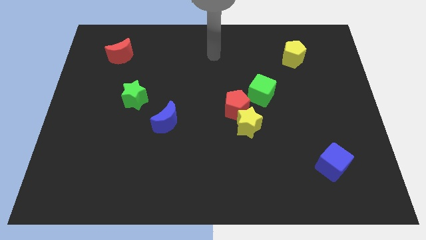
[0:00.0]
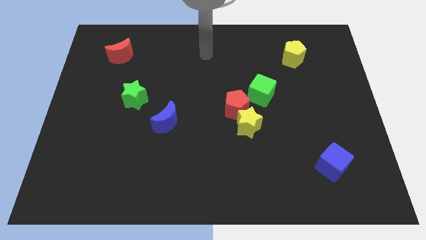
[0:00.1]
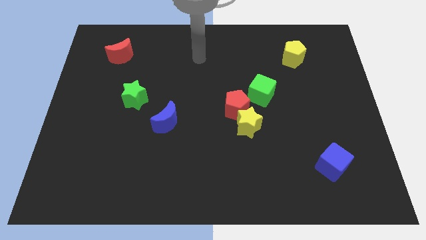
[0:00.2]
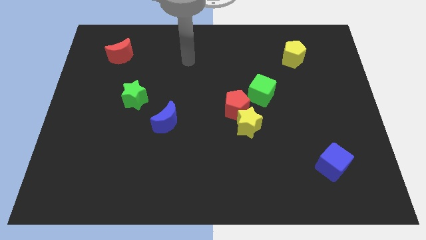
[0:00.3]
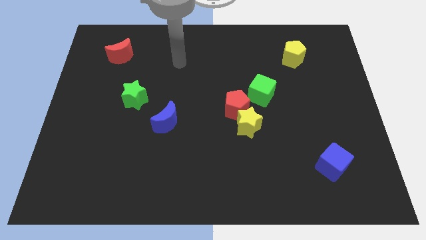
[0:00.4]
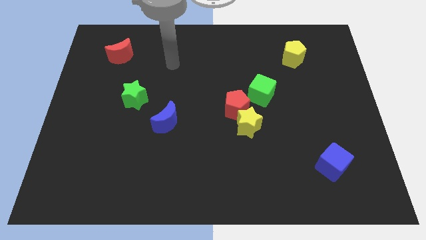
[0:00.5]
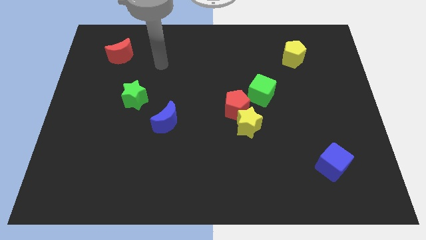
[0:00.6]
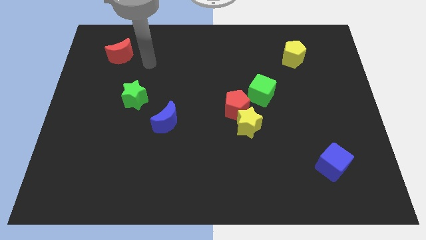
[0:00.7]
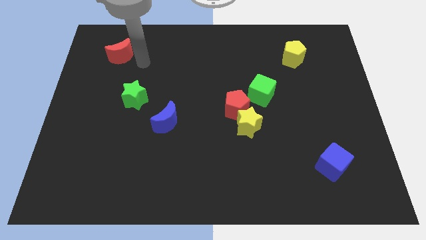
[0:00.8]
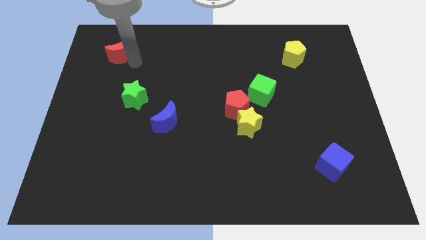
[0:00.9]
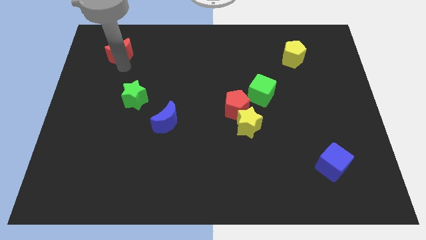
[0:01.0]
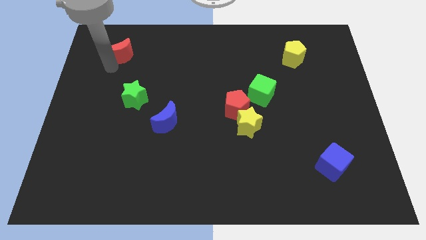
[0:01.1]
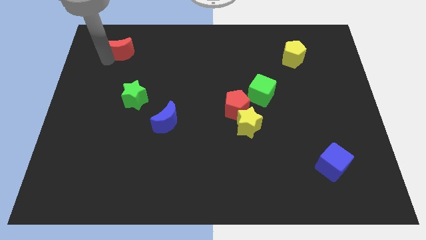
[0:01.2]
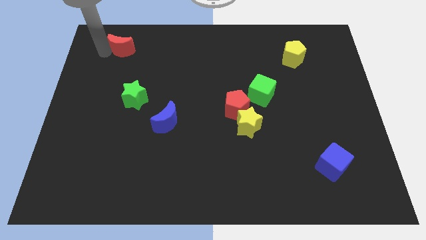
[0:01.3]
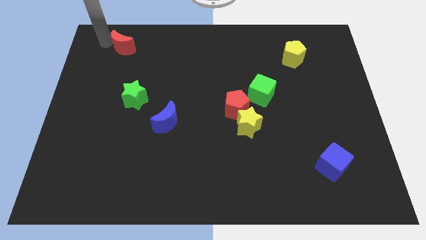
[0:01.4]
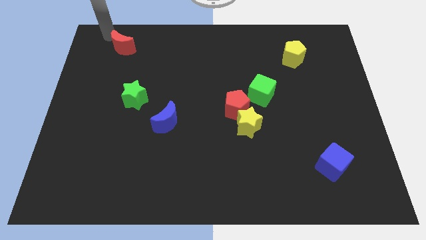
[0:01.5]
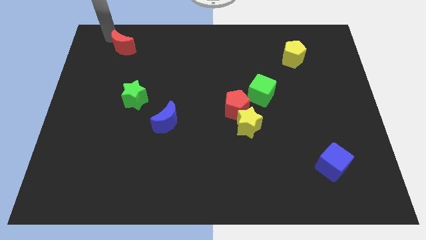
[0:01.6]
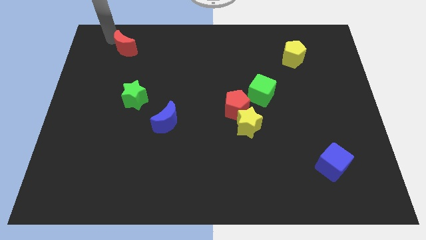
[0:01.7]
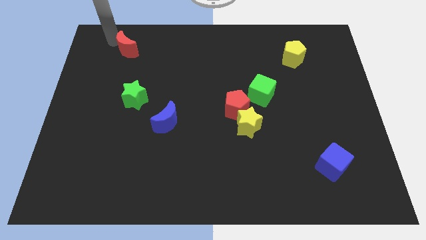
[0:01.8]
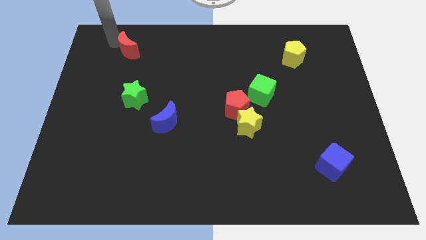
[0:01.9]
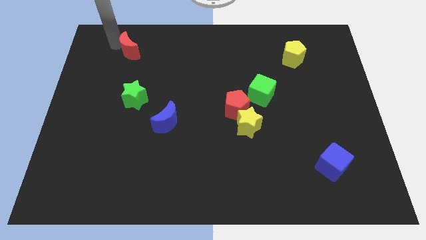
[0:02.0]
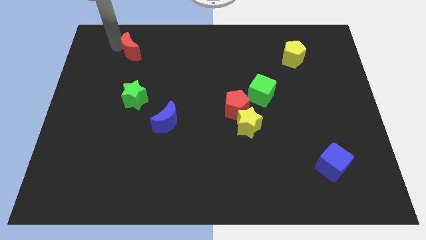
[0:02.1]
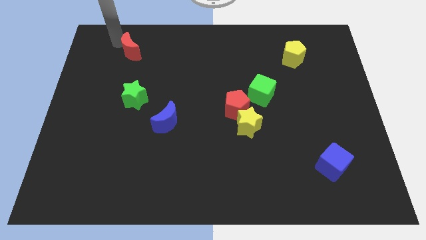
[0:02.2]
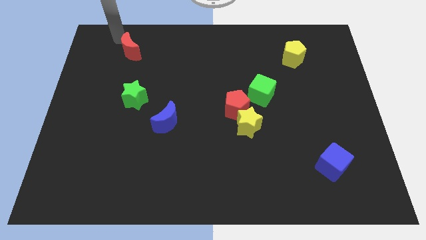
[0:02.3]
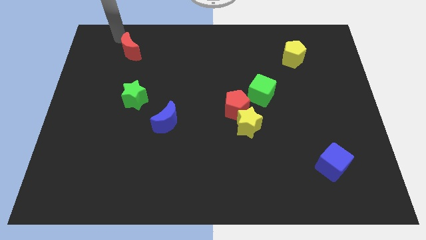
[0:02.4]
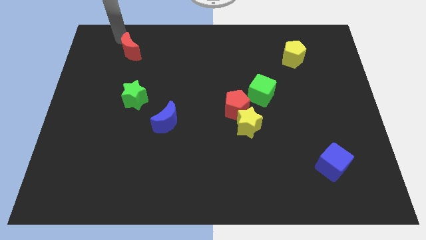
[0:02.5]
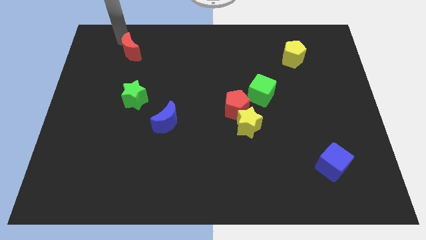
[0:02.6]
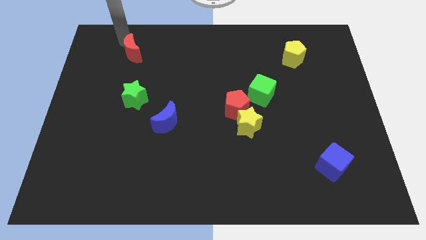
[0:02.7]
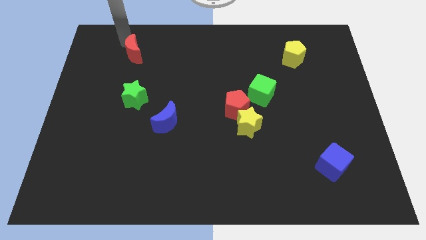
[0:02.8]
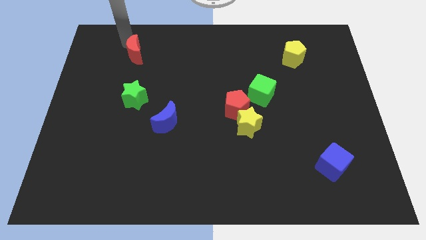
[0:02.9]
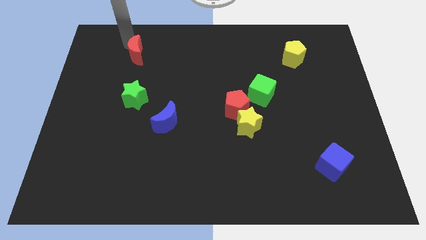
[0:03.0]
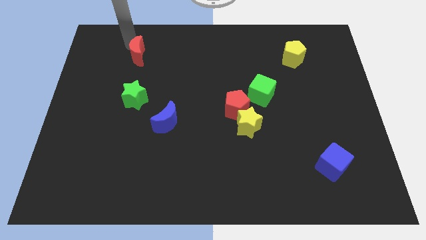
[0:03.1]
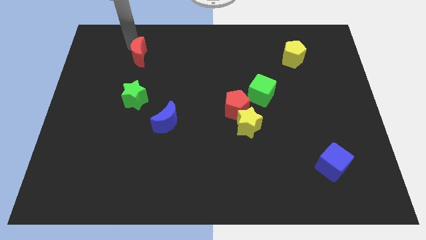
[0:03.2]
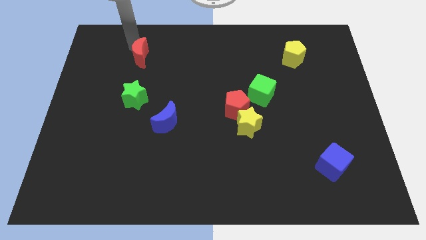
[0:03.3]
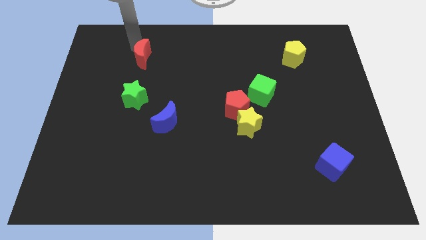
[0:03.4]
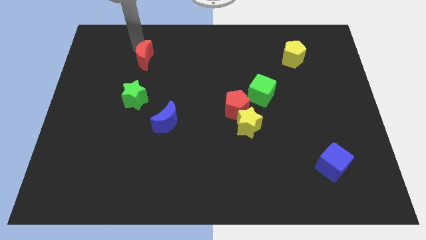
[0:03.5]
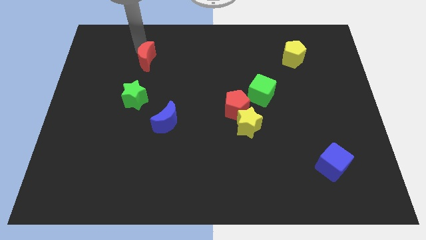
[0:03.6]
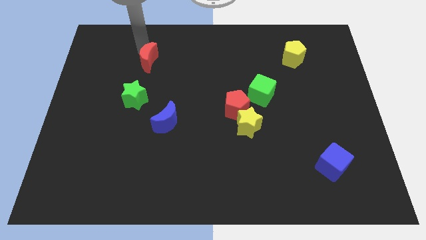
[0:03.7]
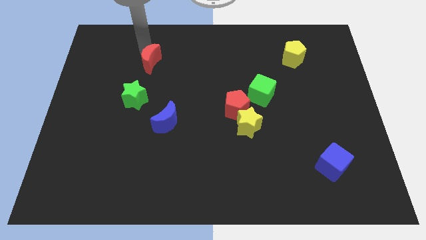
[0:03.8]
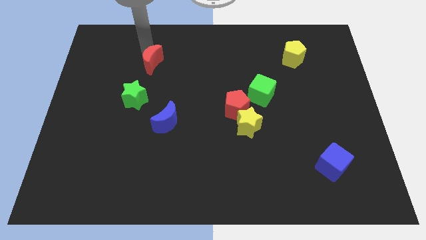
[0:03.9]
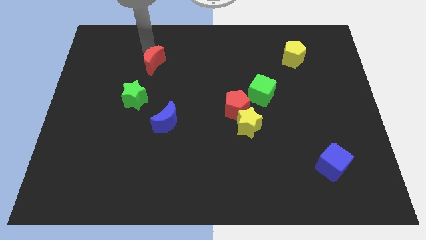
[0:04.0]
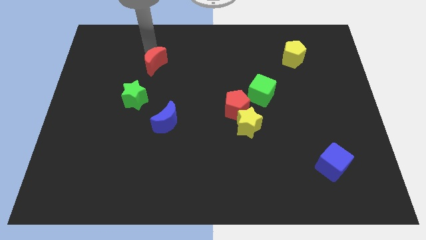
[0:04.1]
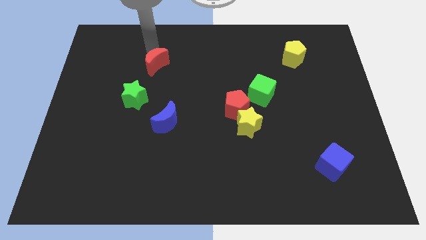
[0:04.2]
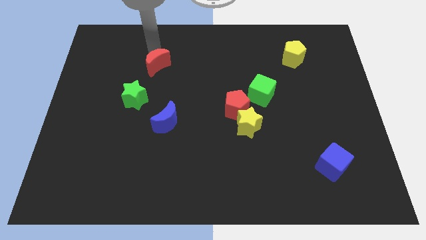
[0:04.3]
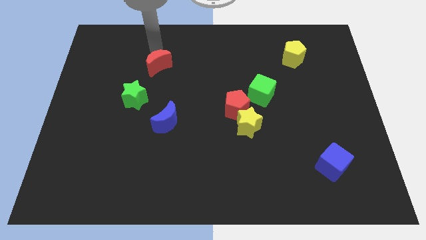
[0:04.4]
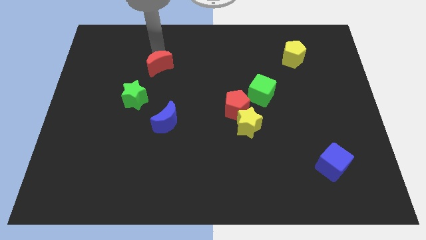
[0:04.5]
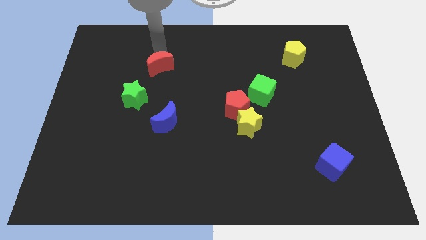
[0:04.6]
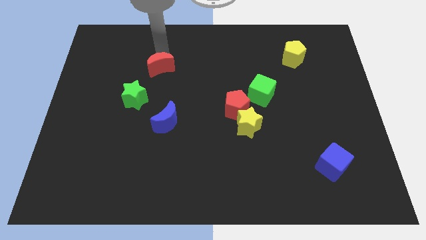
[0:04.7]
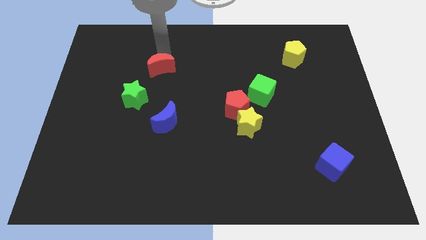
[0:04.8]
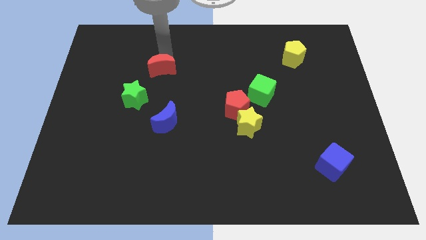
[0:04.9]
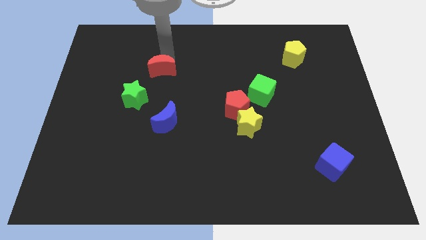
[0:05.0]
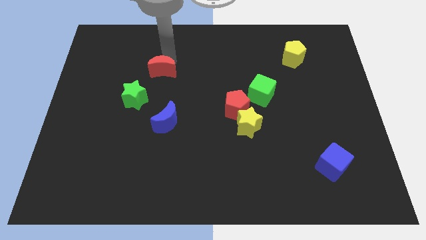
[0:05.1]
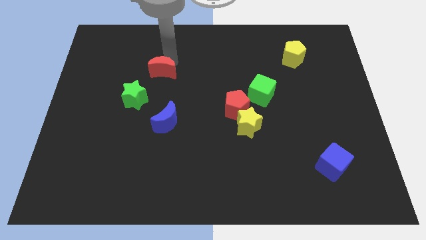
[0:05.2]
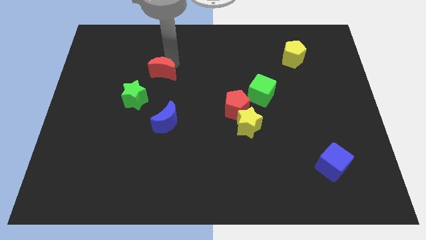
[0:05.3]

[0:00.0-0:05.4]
move the red moon to the top of the blue moon

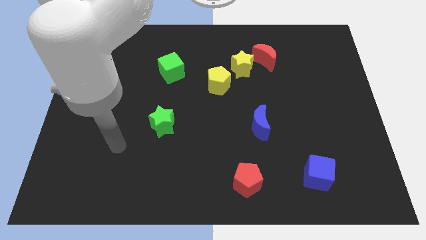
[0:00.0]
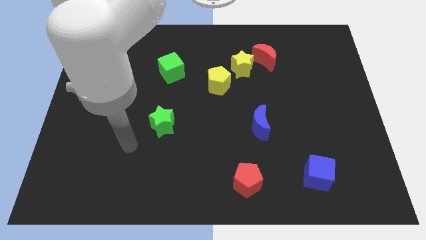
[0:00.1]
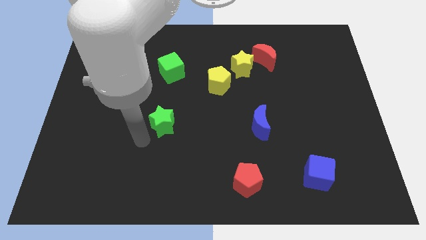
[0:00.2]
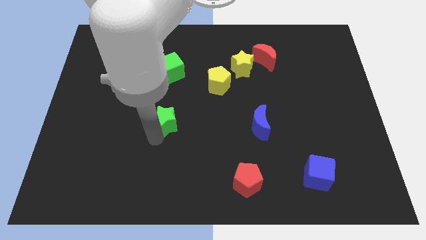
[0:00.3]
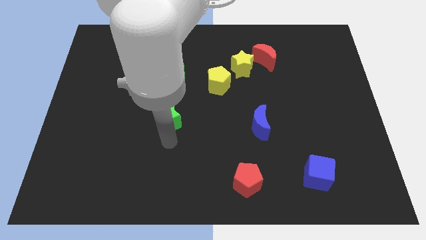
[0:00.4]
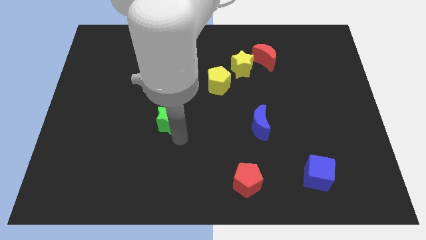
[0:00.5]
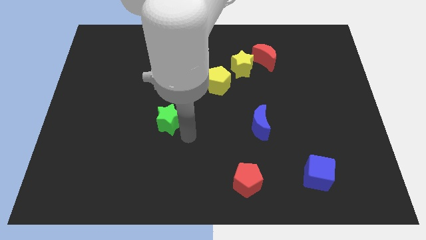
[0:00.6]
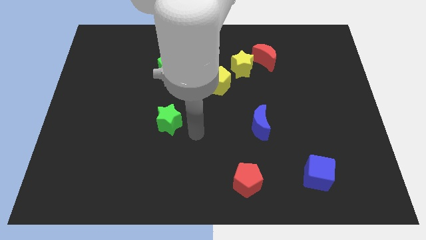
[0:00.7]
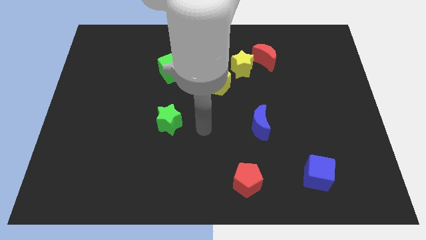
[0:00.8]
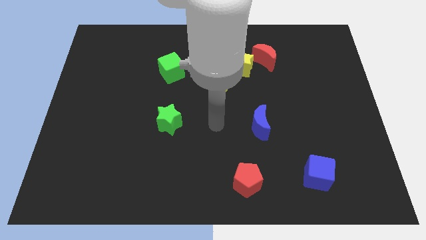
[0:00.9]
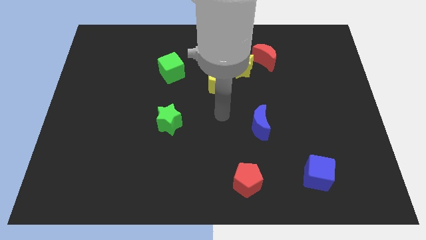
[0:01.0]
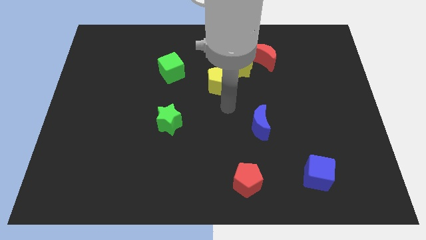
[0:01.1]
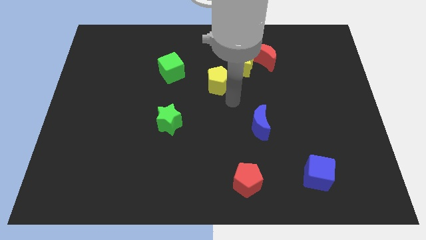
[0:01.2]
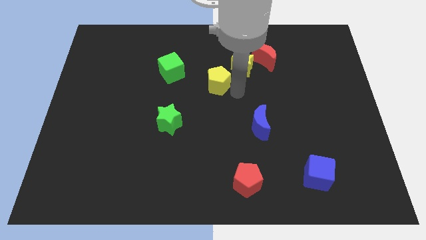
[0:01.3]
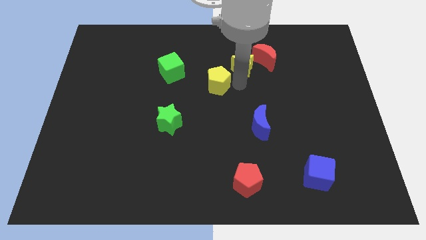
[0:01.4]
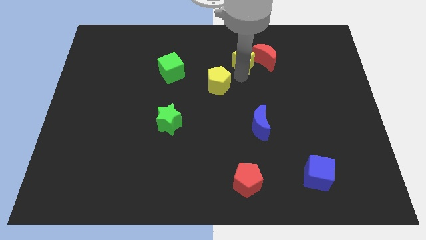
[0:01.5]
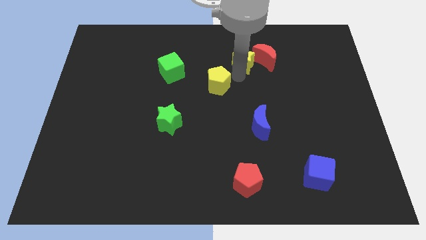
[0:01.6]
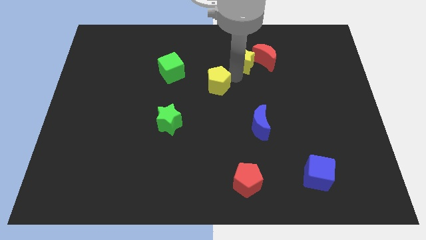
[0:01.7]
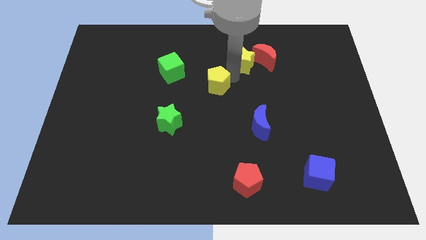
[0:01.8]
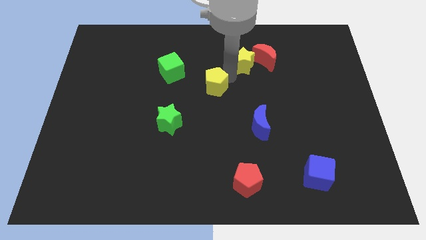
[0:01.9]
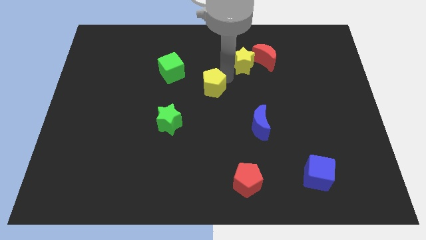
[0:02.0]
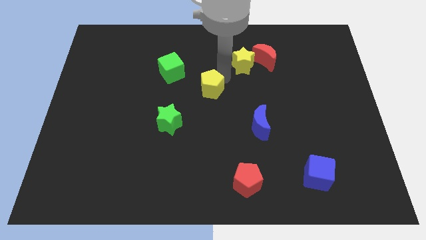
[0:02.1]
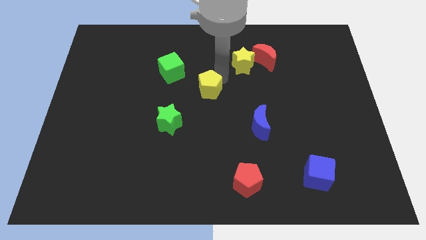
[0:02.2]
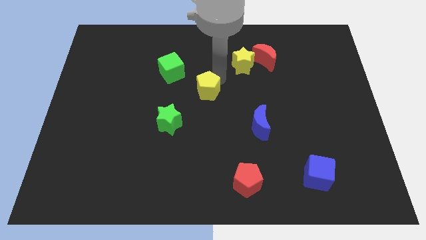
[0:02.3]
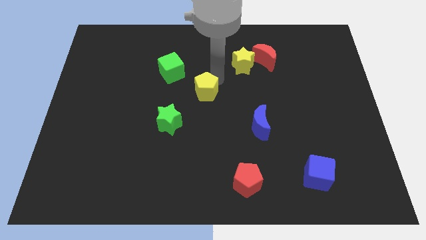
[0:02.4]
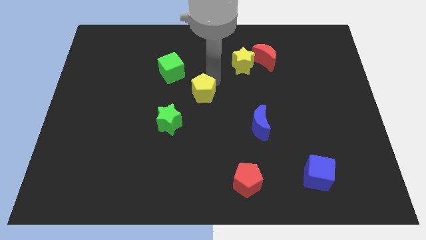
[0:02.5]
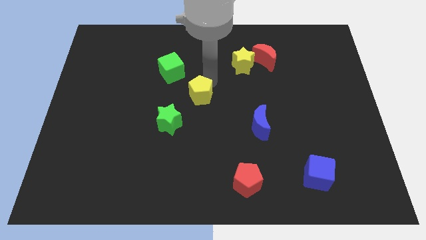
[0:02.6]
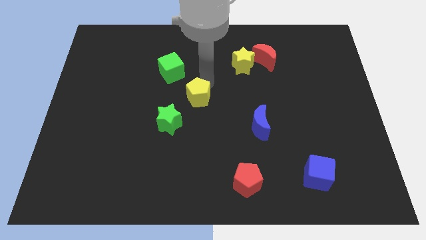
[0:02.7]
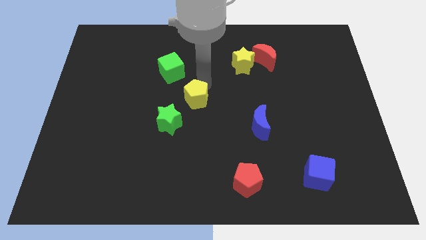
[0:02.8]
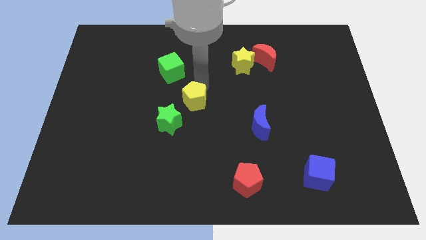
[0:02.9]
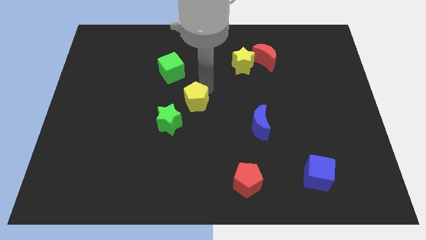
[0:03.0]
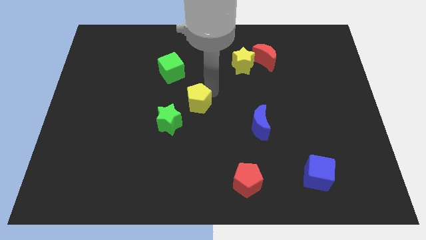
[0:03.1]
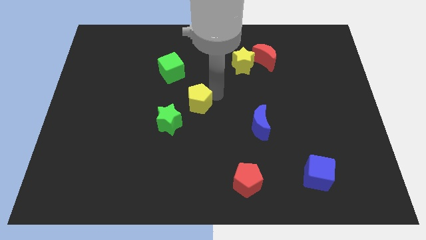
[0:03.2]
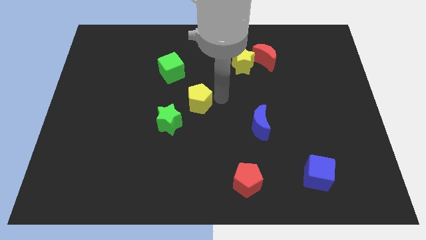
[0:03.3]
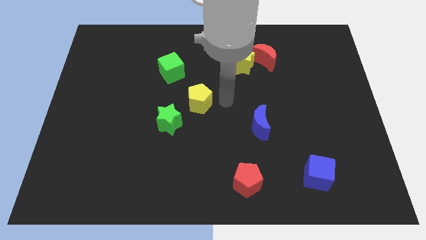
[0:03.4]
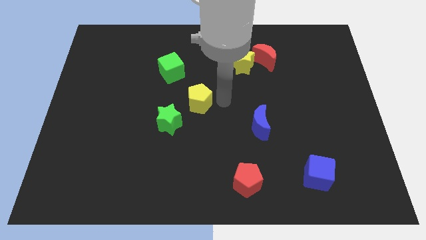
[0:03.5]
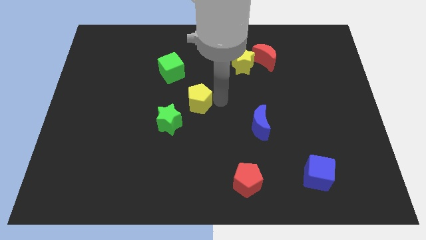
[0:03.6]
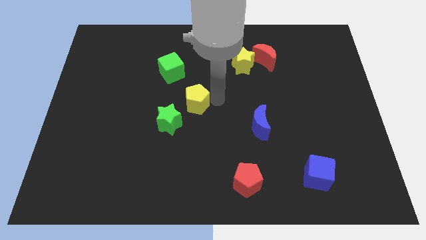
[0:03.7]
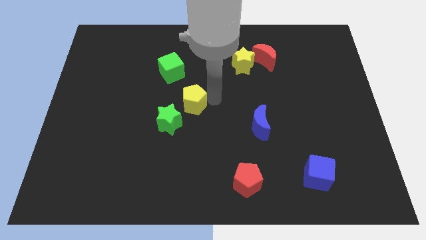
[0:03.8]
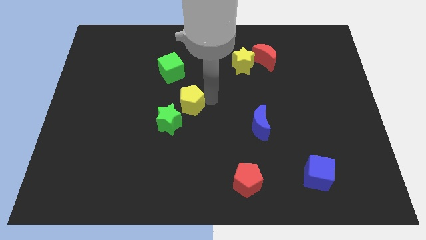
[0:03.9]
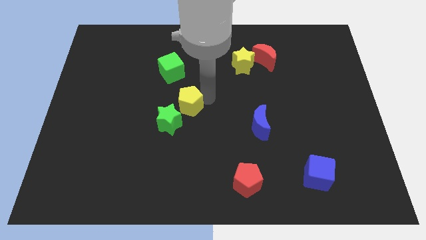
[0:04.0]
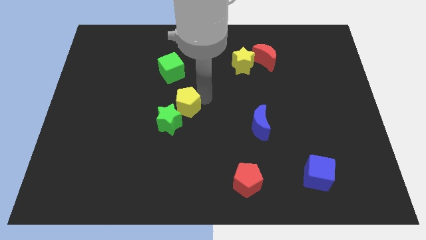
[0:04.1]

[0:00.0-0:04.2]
move the yellow pentagon to the bottom of the green cube
